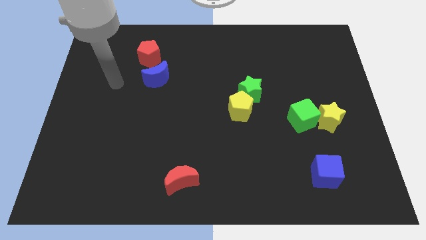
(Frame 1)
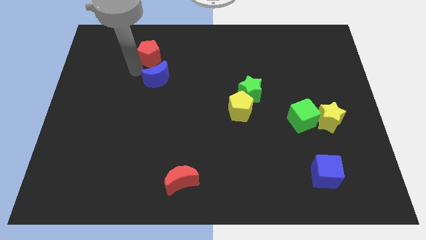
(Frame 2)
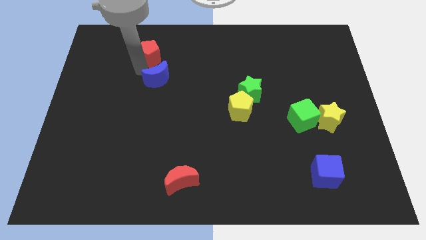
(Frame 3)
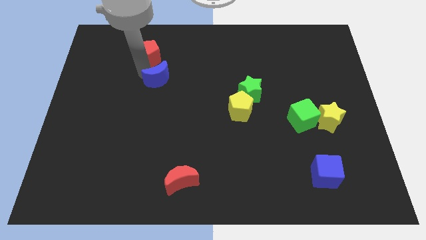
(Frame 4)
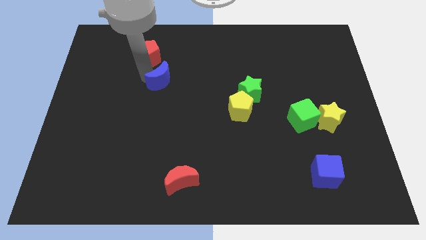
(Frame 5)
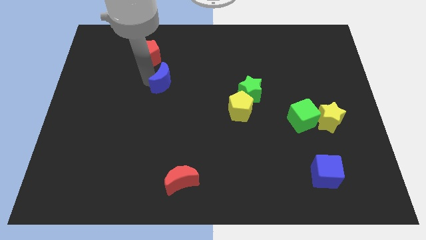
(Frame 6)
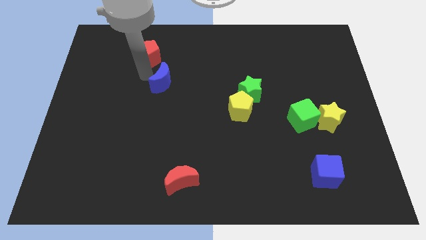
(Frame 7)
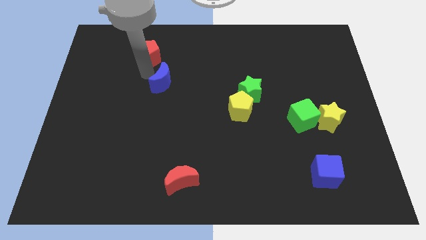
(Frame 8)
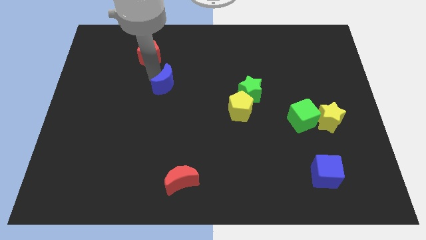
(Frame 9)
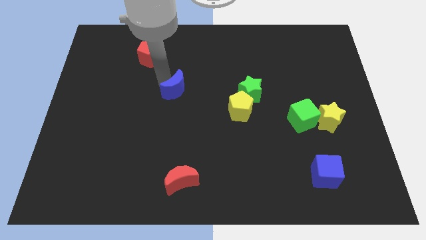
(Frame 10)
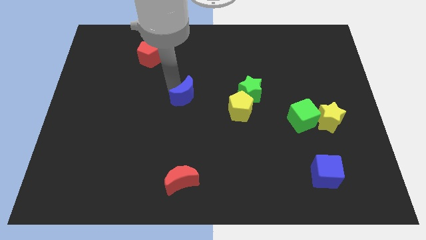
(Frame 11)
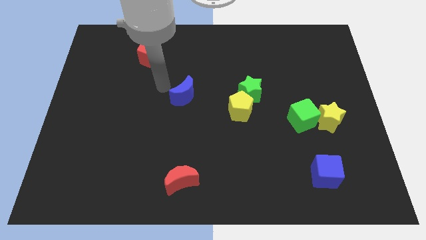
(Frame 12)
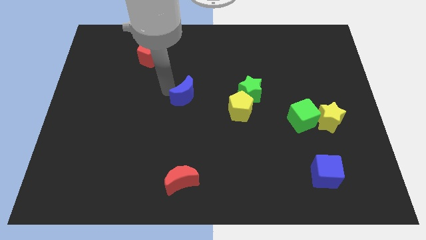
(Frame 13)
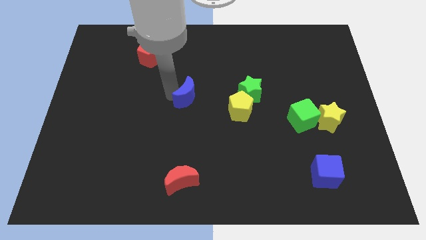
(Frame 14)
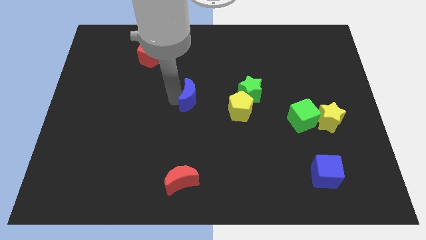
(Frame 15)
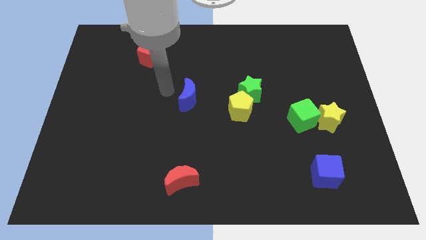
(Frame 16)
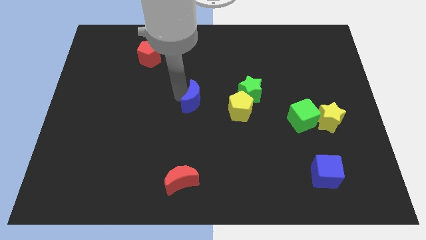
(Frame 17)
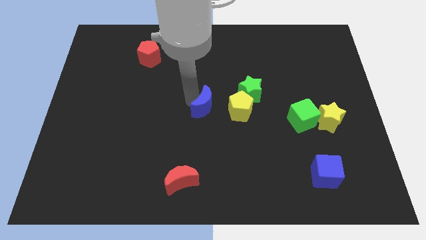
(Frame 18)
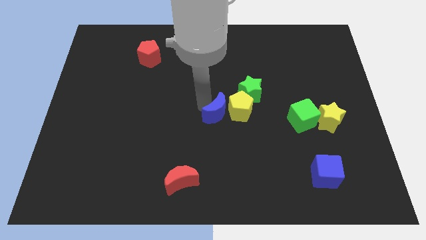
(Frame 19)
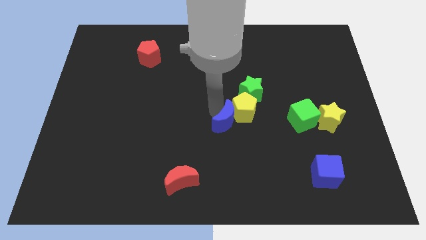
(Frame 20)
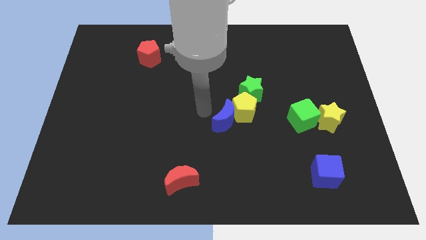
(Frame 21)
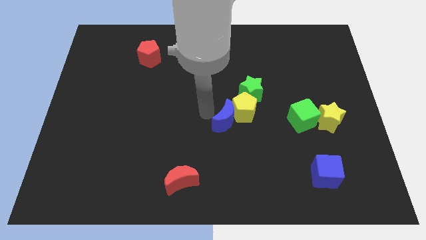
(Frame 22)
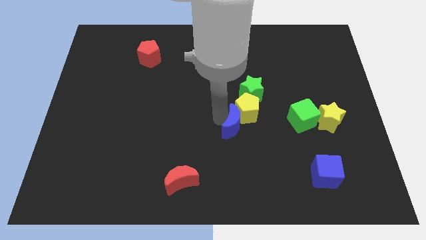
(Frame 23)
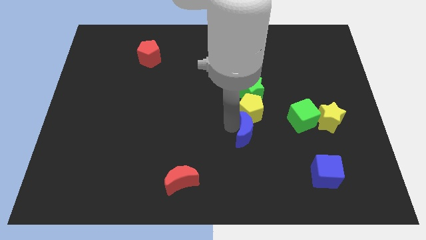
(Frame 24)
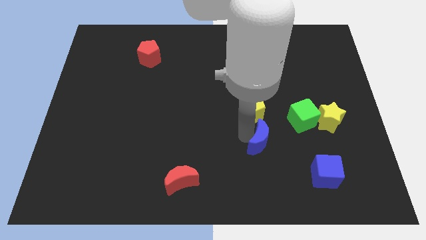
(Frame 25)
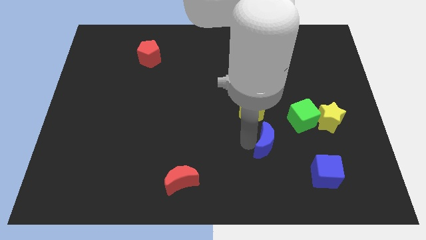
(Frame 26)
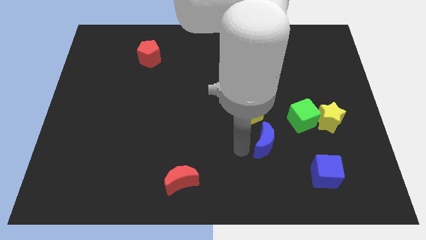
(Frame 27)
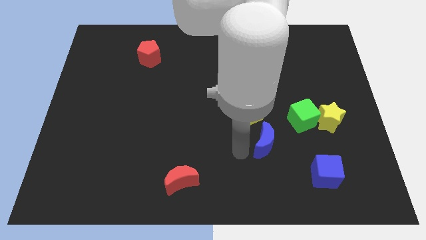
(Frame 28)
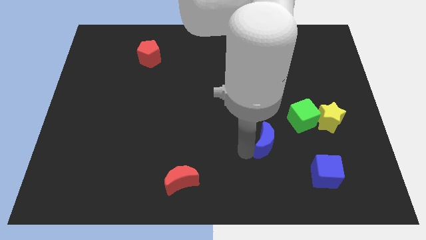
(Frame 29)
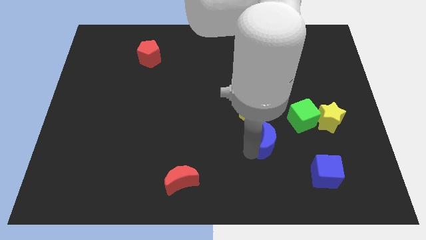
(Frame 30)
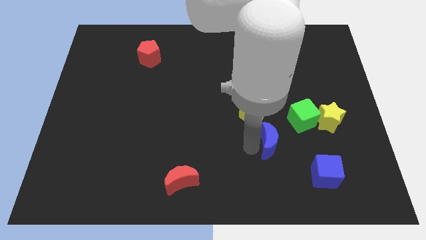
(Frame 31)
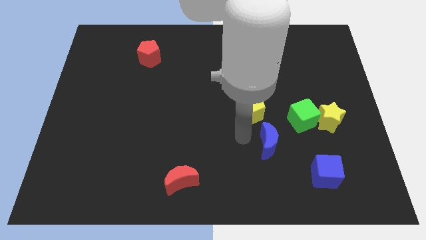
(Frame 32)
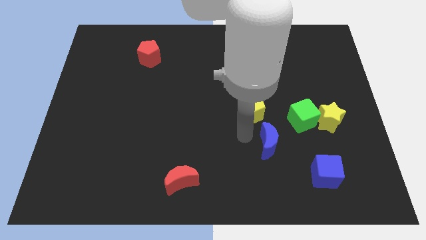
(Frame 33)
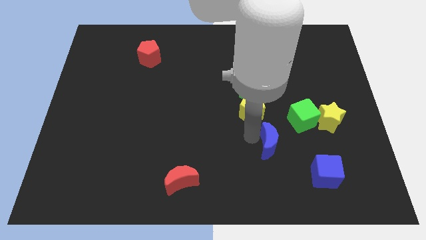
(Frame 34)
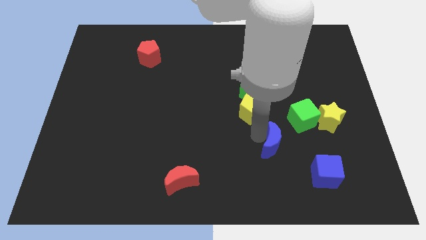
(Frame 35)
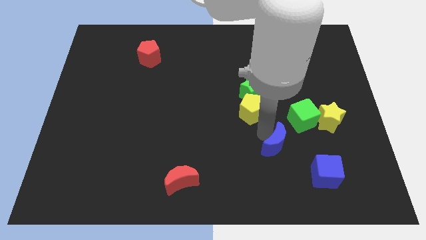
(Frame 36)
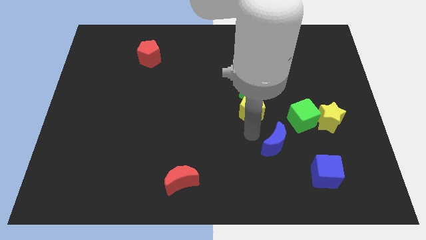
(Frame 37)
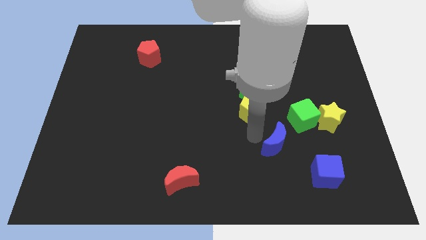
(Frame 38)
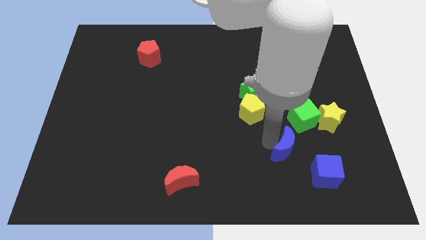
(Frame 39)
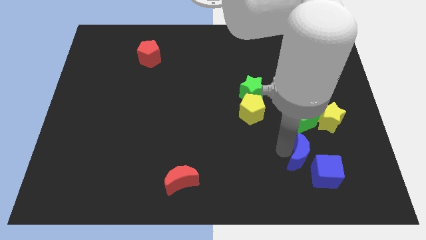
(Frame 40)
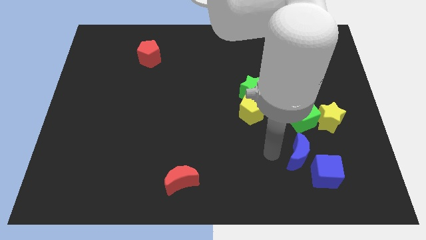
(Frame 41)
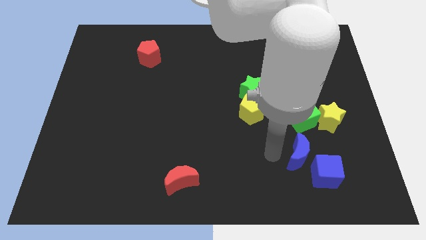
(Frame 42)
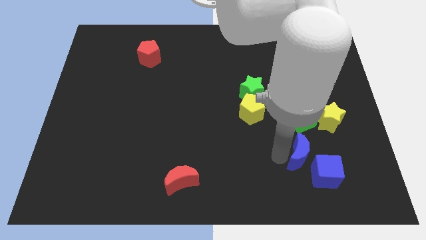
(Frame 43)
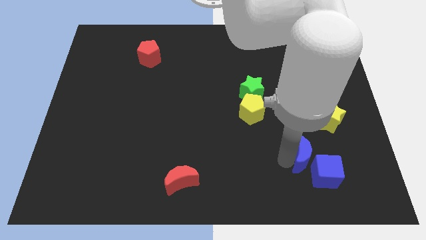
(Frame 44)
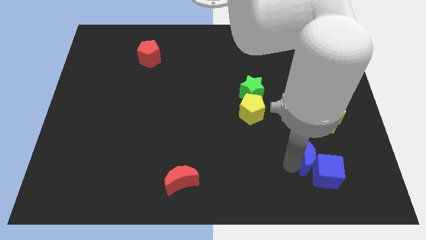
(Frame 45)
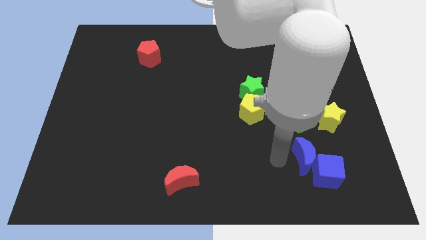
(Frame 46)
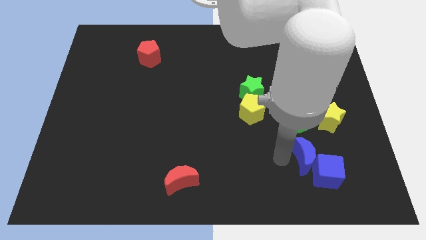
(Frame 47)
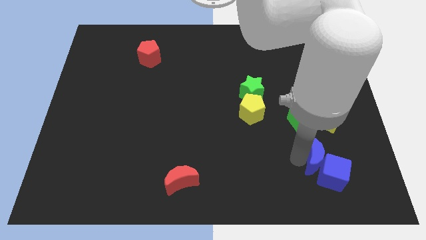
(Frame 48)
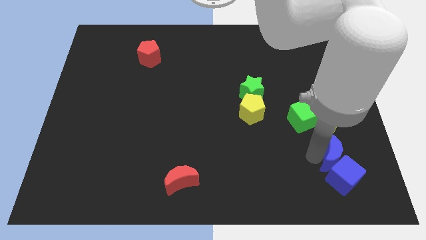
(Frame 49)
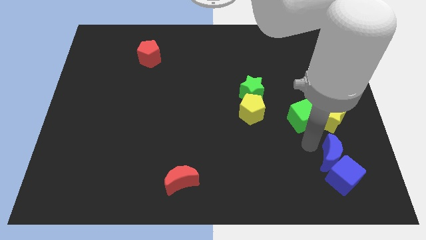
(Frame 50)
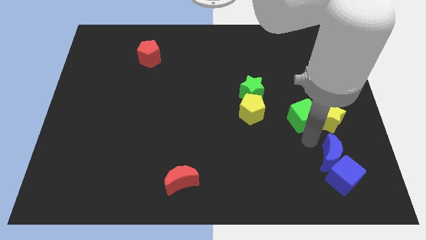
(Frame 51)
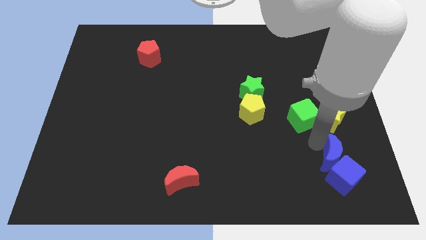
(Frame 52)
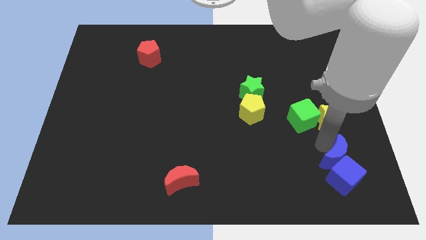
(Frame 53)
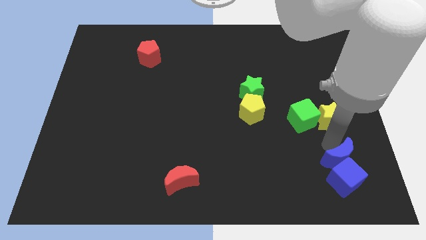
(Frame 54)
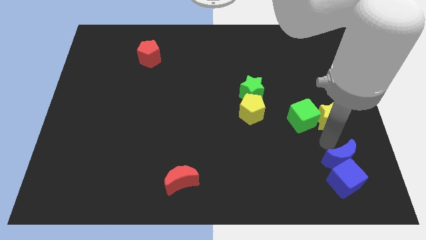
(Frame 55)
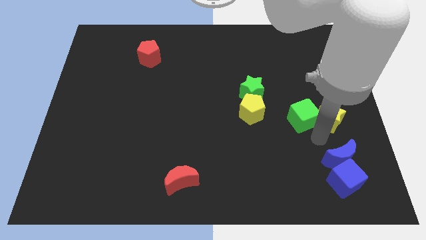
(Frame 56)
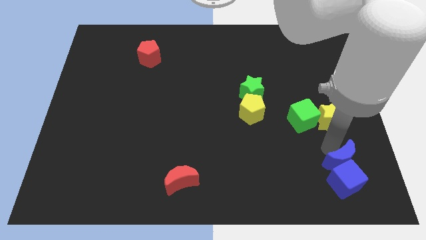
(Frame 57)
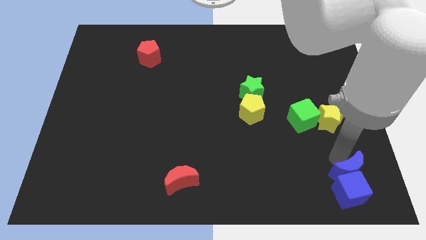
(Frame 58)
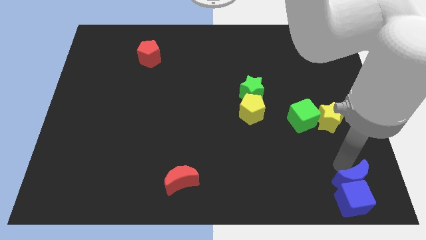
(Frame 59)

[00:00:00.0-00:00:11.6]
move the blue moon to the lower right corner

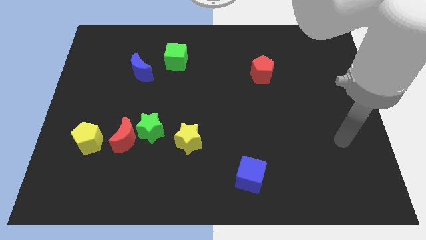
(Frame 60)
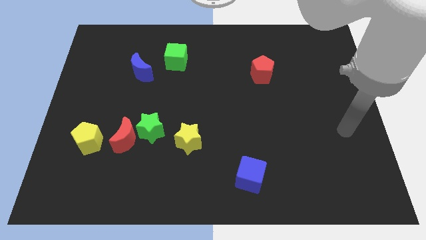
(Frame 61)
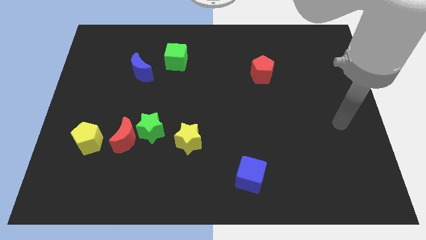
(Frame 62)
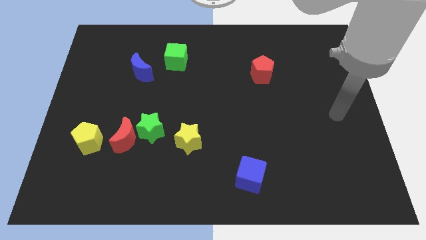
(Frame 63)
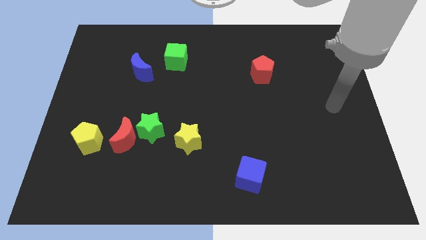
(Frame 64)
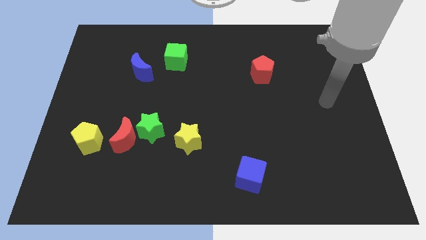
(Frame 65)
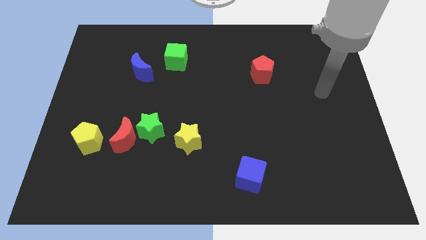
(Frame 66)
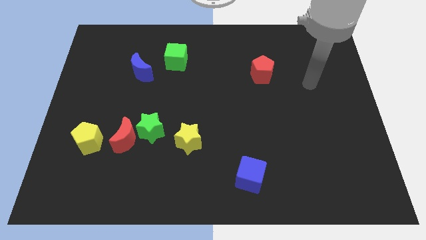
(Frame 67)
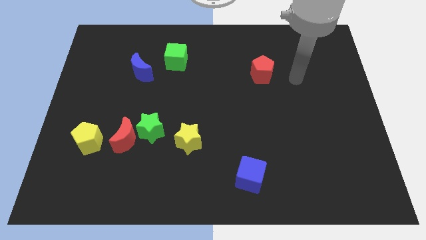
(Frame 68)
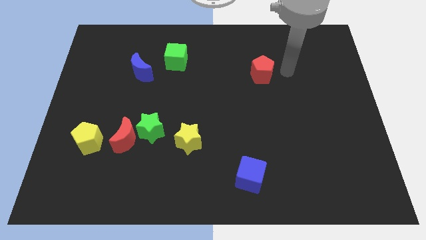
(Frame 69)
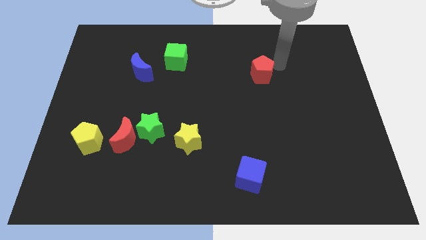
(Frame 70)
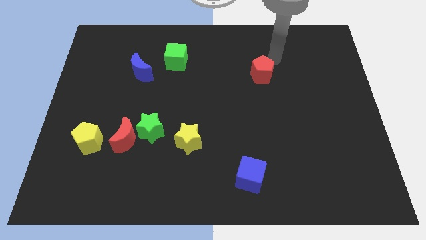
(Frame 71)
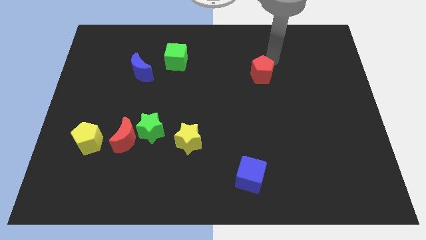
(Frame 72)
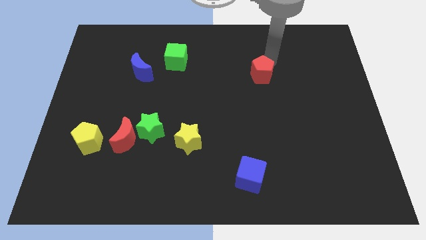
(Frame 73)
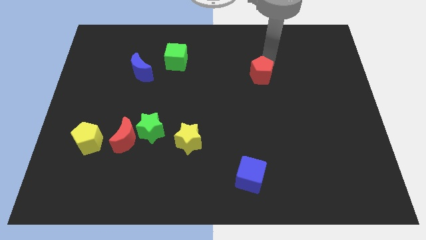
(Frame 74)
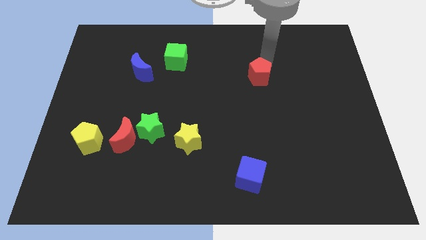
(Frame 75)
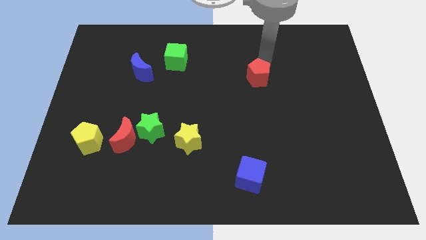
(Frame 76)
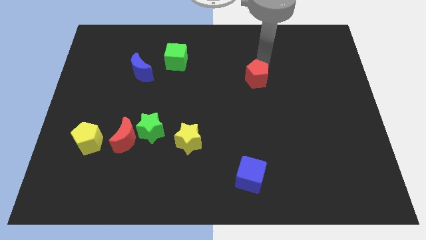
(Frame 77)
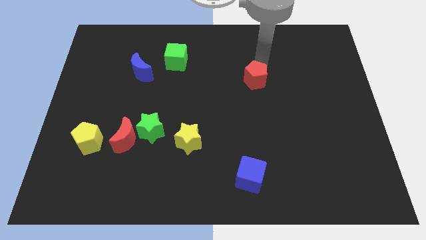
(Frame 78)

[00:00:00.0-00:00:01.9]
push the red pentagon to the middle of the board
